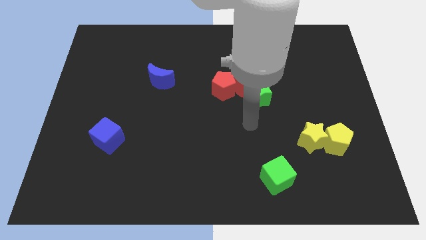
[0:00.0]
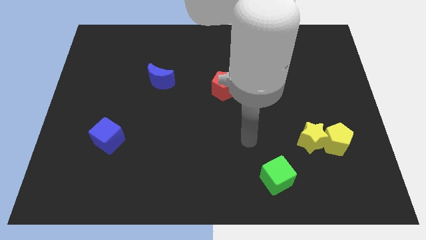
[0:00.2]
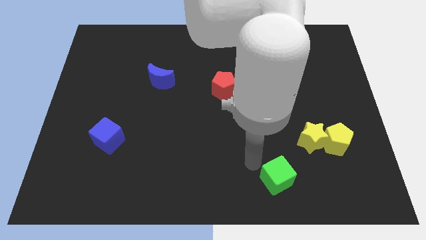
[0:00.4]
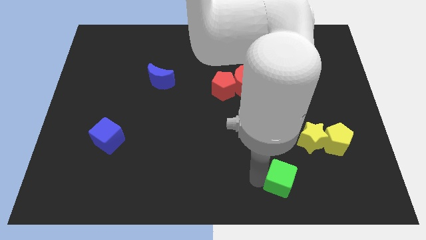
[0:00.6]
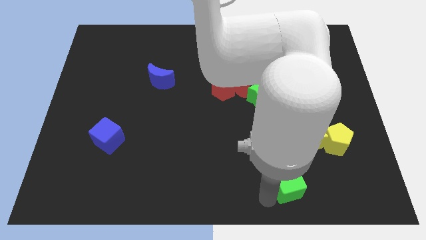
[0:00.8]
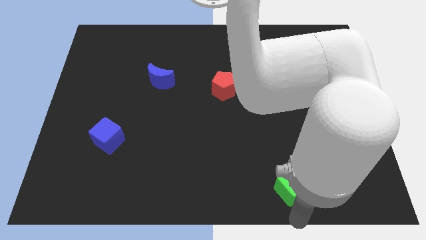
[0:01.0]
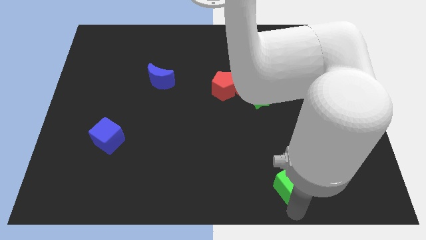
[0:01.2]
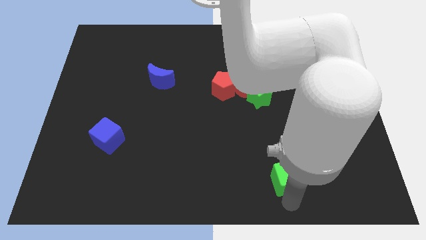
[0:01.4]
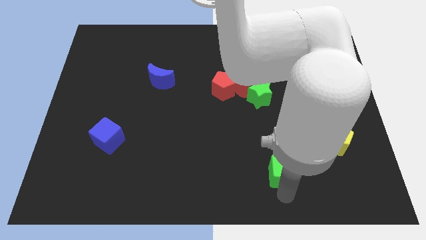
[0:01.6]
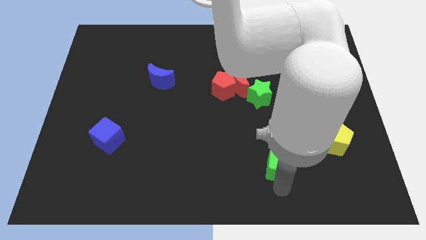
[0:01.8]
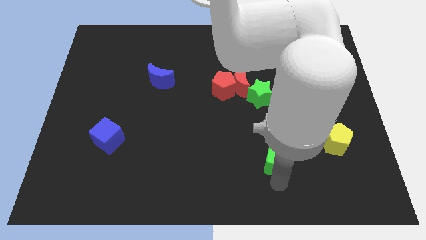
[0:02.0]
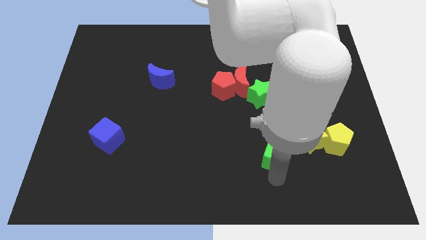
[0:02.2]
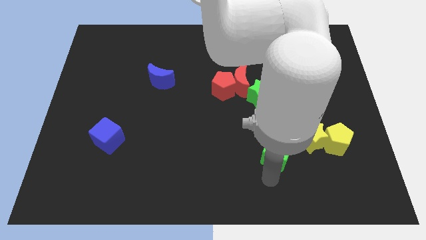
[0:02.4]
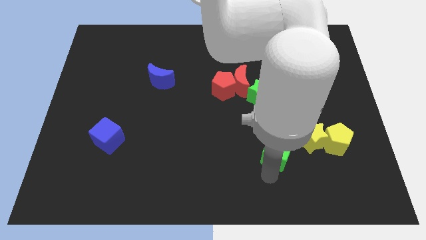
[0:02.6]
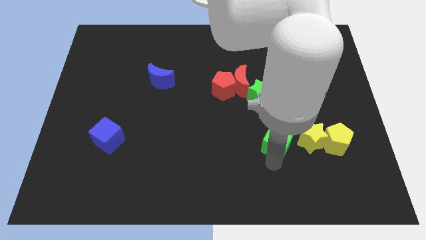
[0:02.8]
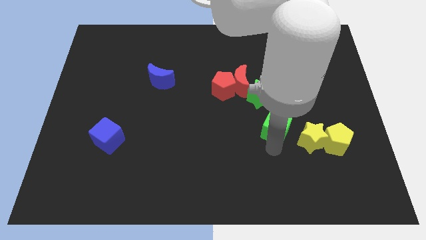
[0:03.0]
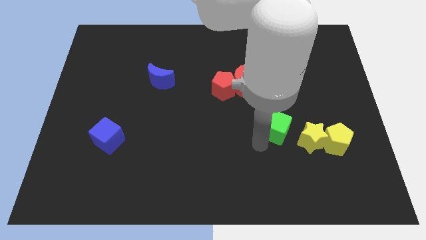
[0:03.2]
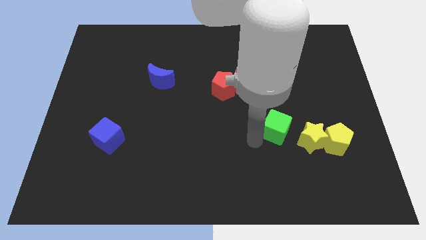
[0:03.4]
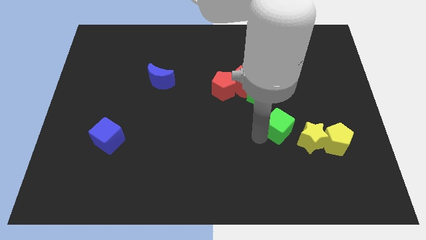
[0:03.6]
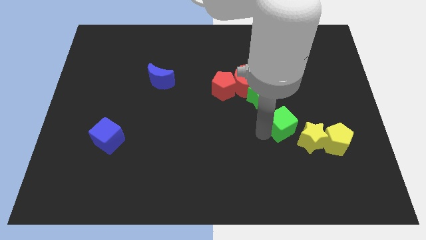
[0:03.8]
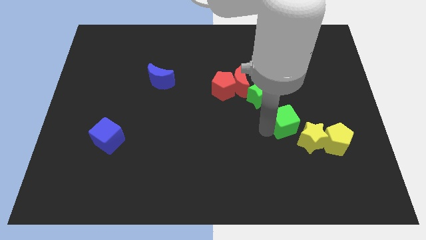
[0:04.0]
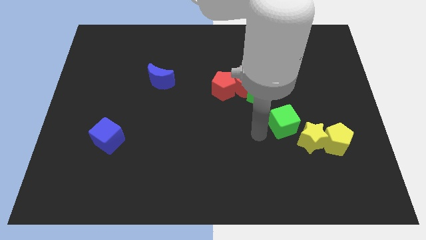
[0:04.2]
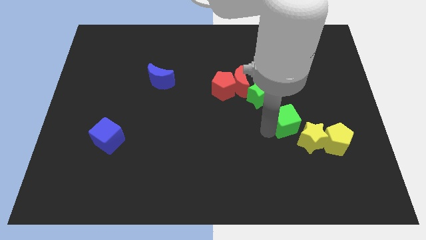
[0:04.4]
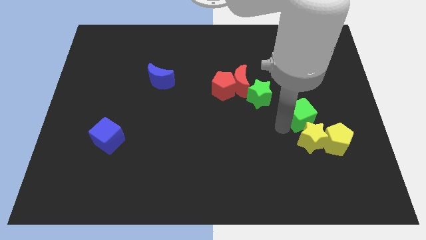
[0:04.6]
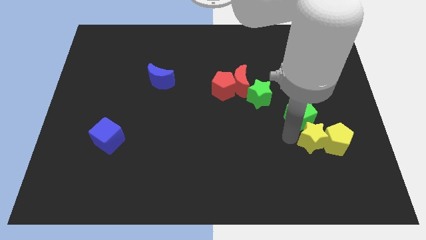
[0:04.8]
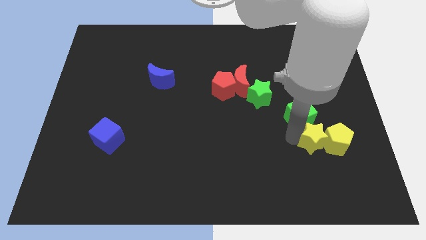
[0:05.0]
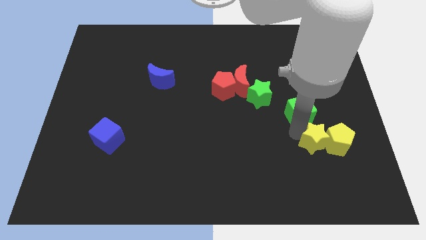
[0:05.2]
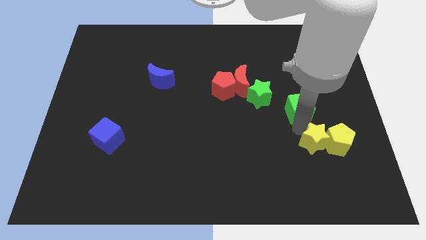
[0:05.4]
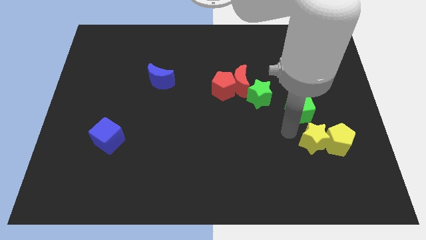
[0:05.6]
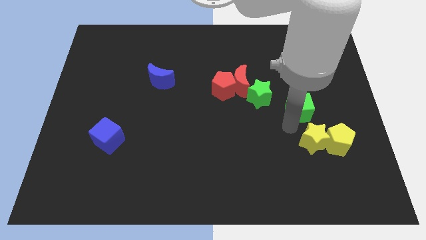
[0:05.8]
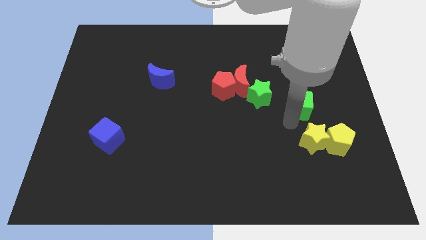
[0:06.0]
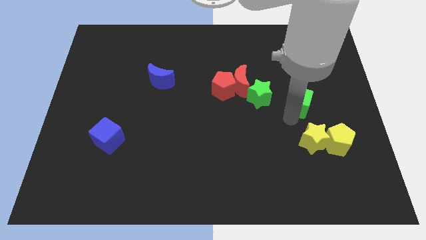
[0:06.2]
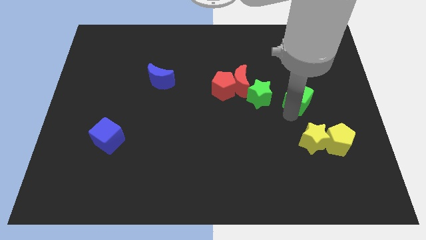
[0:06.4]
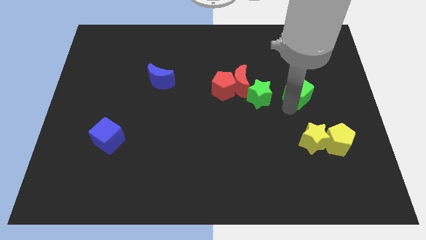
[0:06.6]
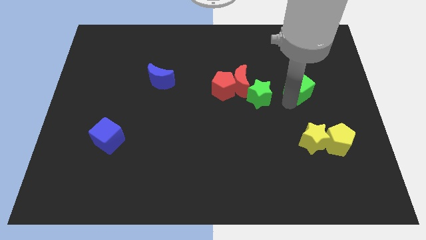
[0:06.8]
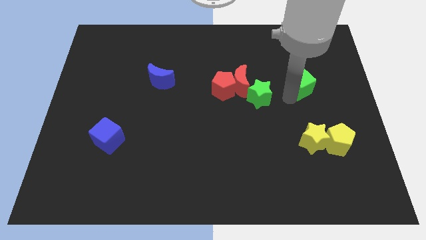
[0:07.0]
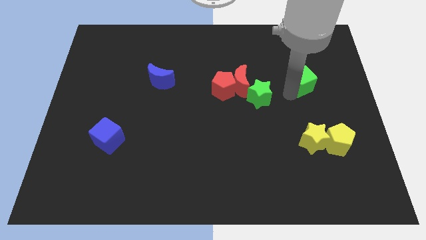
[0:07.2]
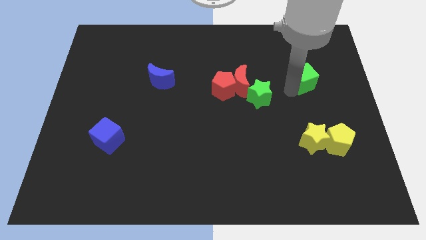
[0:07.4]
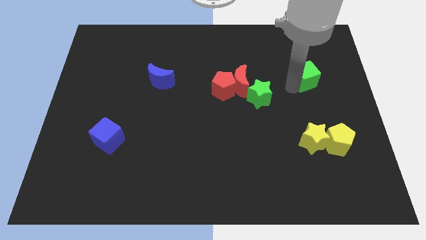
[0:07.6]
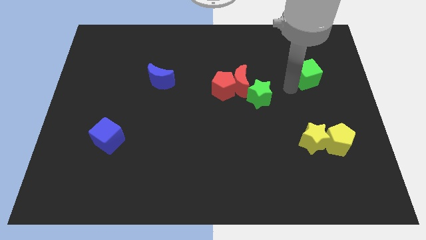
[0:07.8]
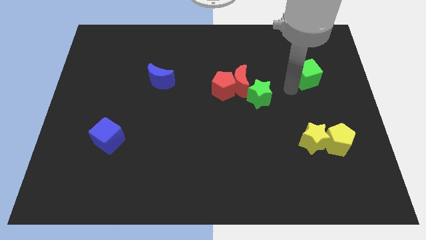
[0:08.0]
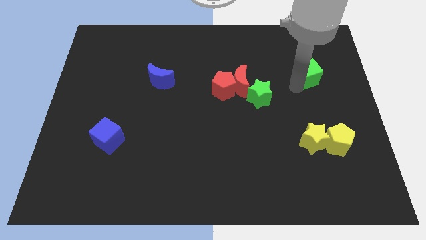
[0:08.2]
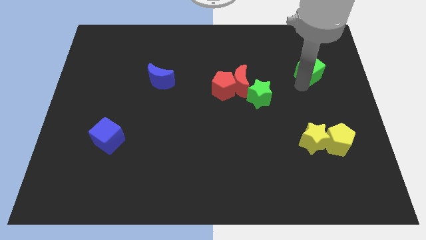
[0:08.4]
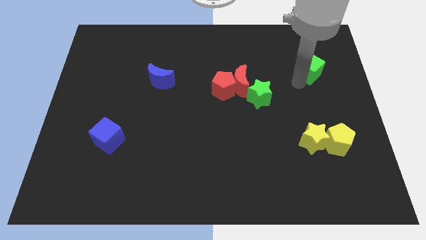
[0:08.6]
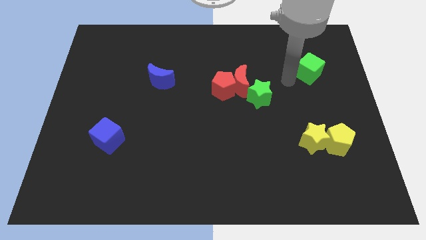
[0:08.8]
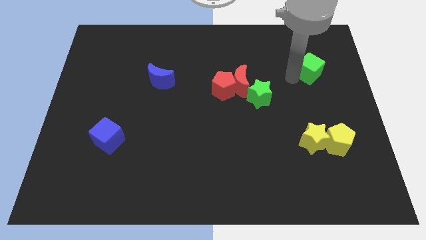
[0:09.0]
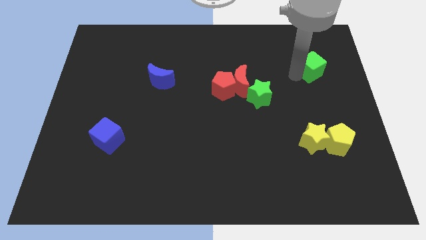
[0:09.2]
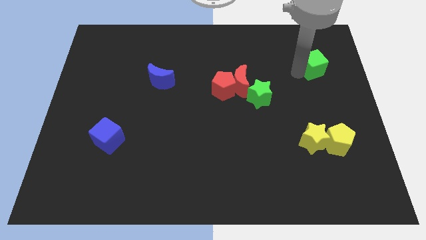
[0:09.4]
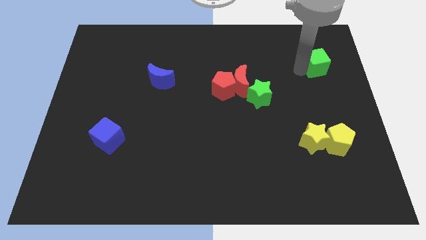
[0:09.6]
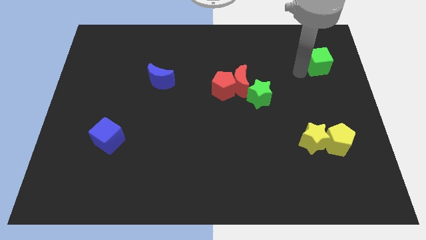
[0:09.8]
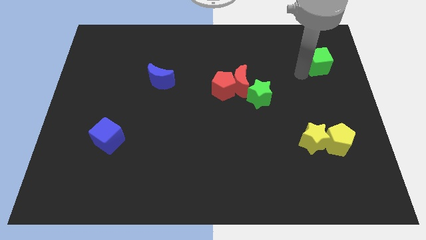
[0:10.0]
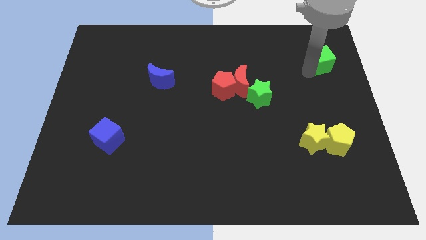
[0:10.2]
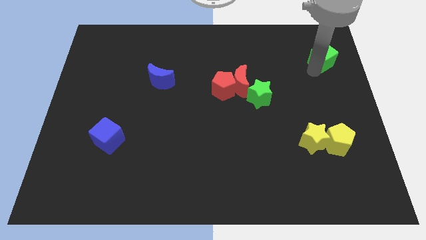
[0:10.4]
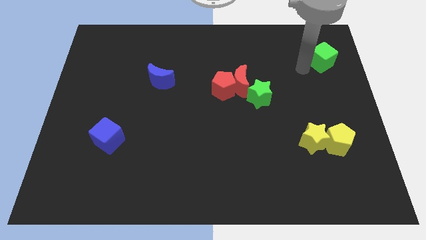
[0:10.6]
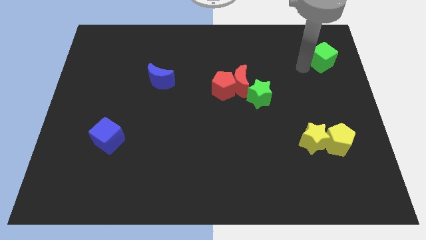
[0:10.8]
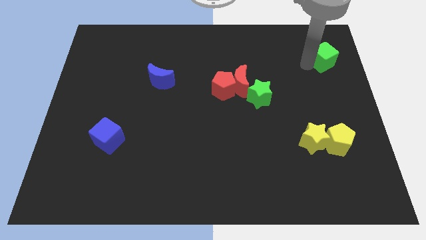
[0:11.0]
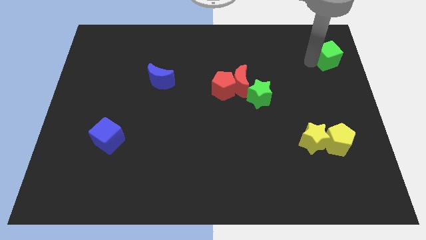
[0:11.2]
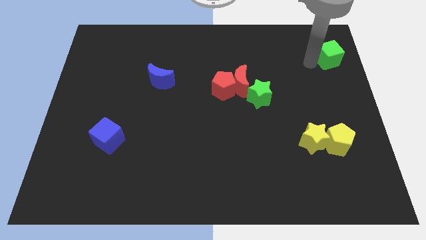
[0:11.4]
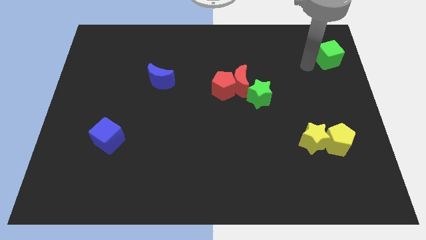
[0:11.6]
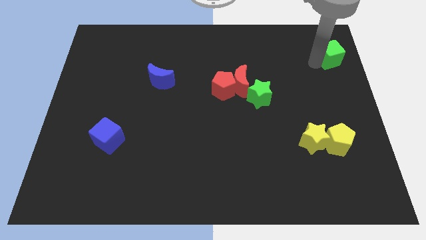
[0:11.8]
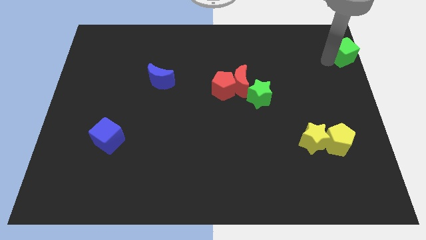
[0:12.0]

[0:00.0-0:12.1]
slide the green cube to the upper right corner
